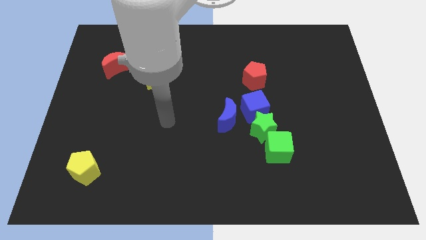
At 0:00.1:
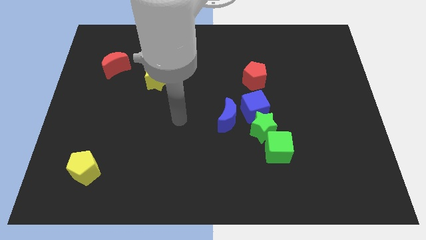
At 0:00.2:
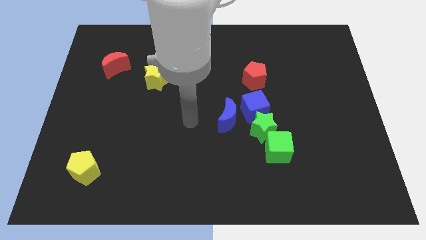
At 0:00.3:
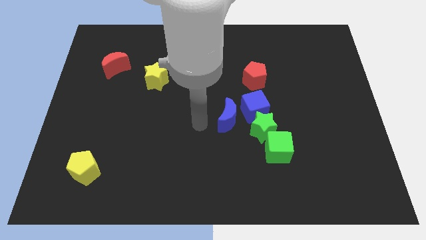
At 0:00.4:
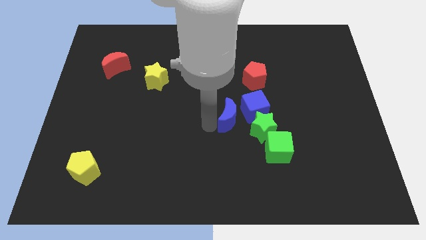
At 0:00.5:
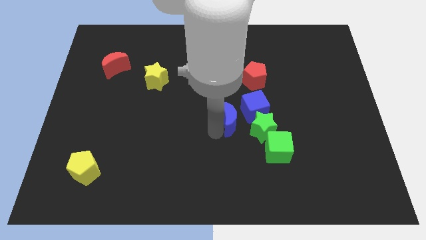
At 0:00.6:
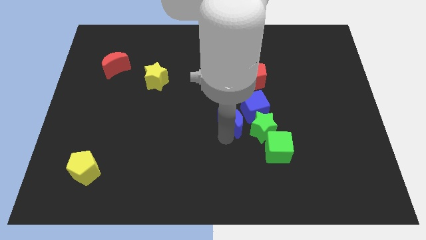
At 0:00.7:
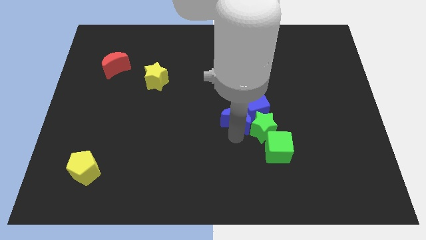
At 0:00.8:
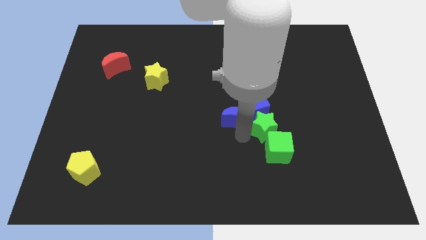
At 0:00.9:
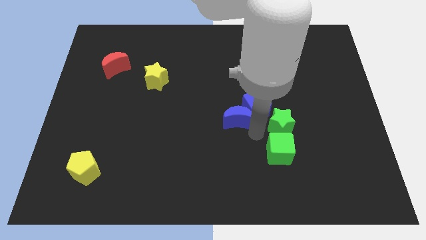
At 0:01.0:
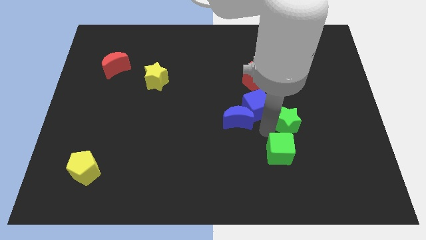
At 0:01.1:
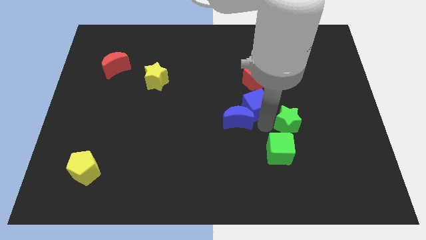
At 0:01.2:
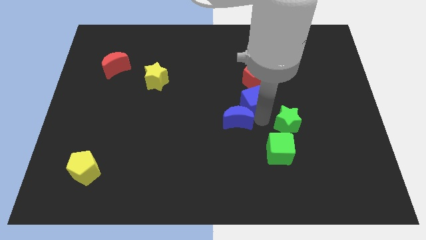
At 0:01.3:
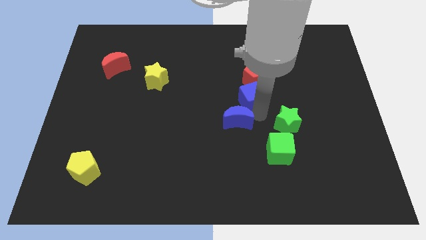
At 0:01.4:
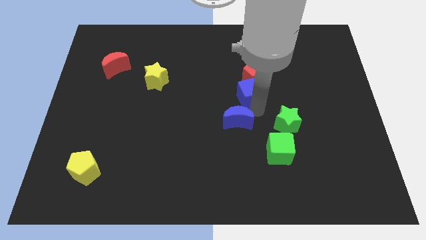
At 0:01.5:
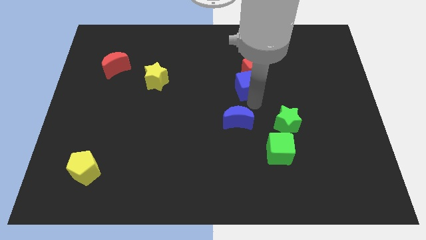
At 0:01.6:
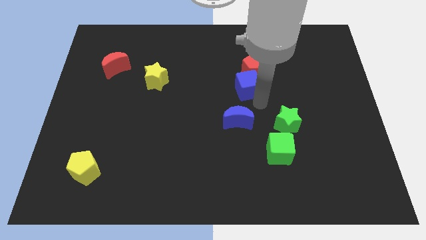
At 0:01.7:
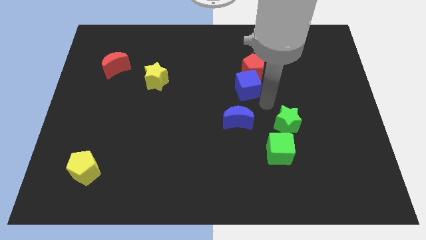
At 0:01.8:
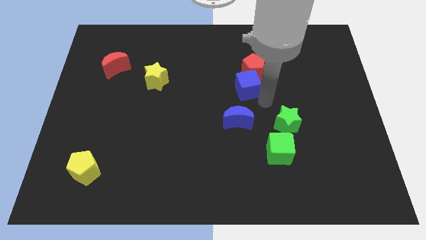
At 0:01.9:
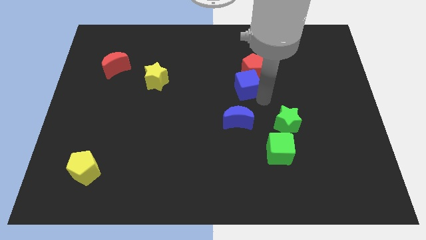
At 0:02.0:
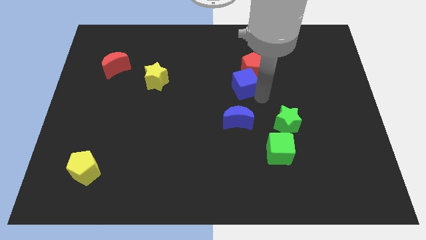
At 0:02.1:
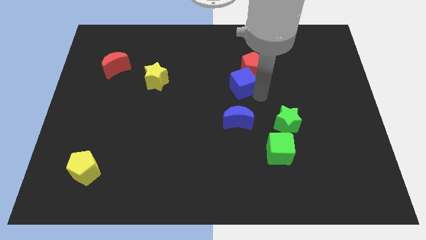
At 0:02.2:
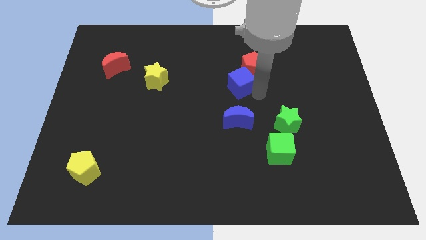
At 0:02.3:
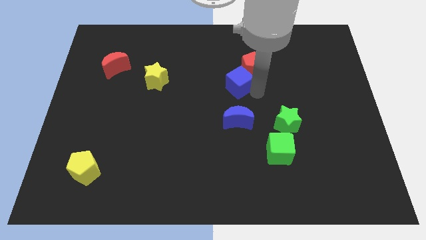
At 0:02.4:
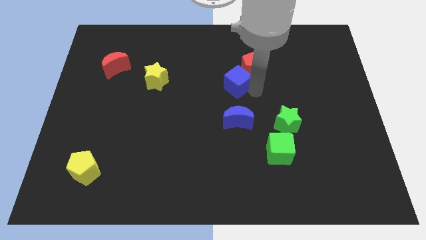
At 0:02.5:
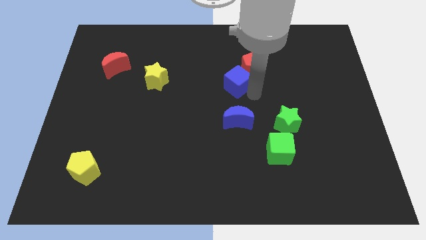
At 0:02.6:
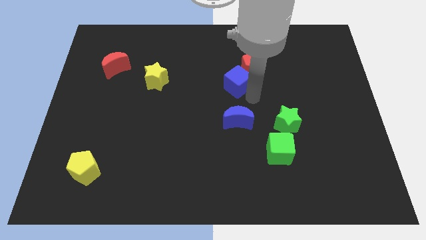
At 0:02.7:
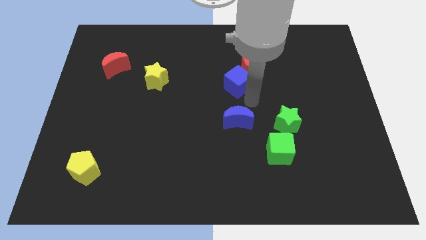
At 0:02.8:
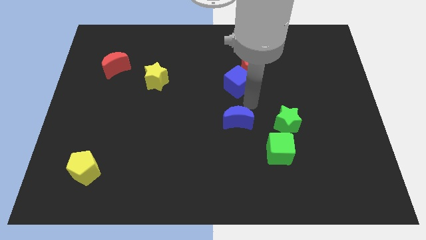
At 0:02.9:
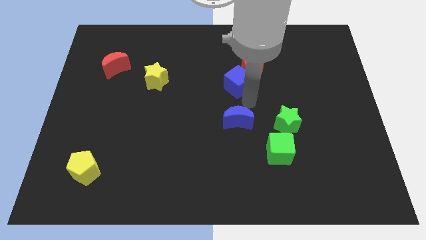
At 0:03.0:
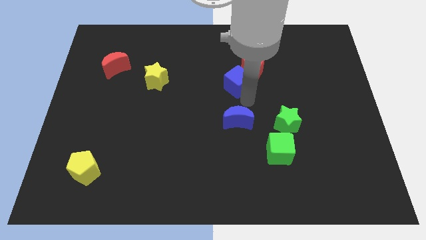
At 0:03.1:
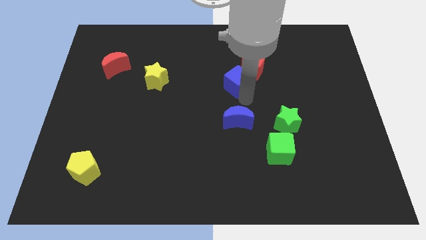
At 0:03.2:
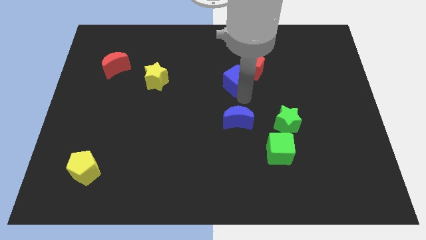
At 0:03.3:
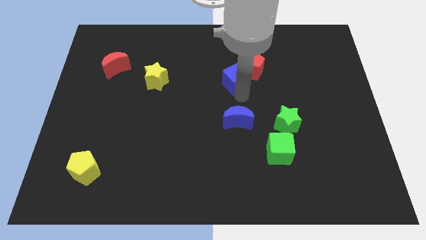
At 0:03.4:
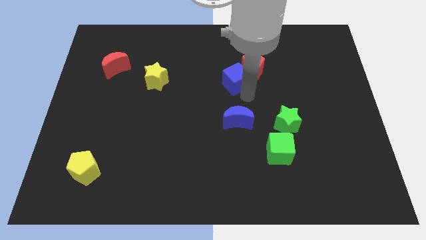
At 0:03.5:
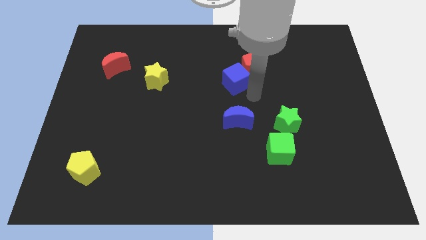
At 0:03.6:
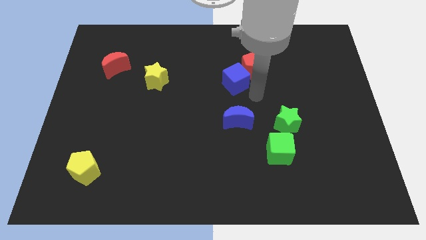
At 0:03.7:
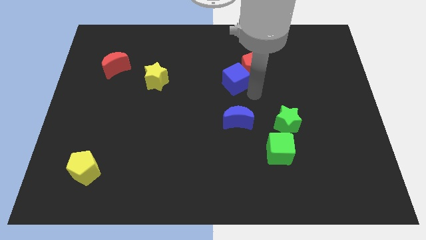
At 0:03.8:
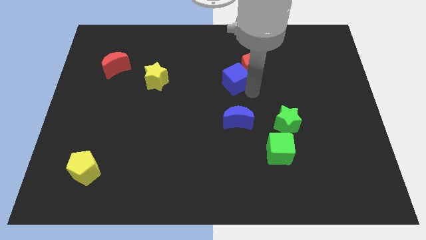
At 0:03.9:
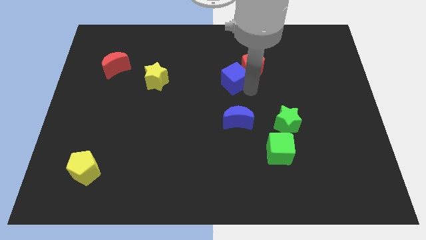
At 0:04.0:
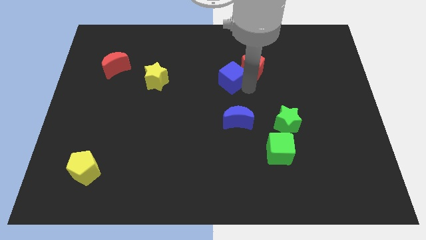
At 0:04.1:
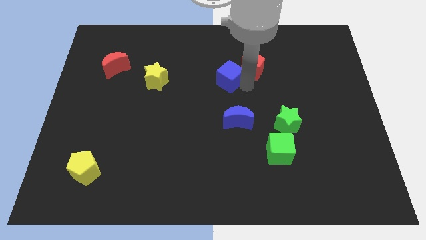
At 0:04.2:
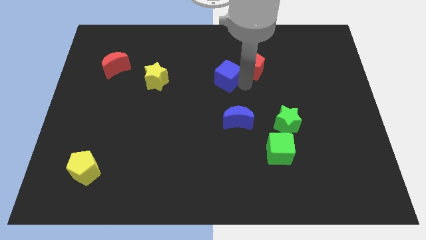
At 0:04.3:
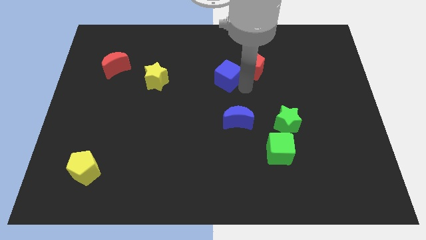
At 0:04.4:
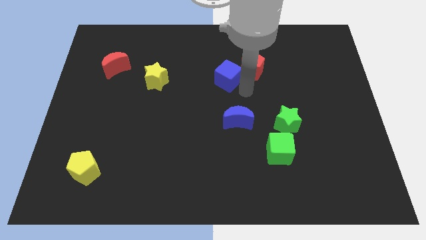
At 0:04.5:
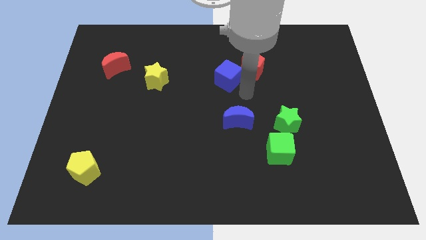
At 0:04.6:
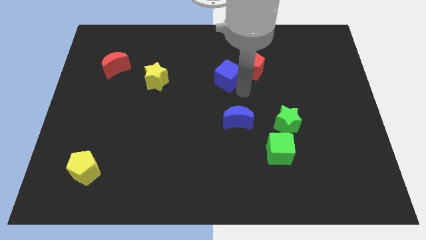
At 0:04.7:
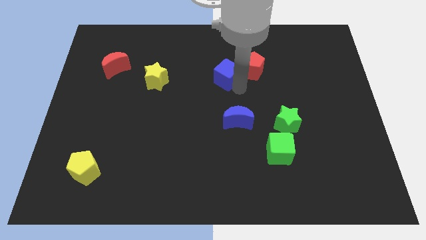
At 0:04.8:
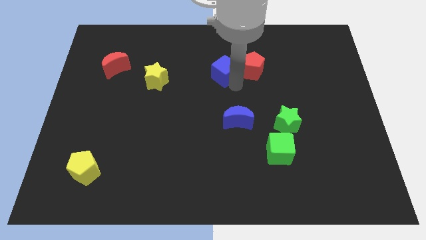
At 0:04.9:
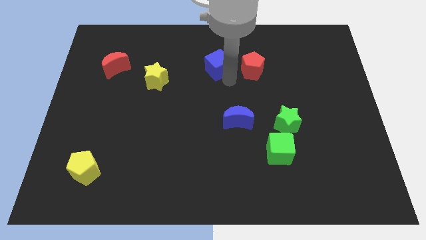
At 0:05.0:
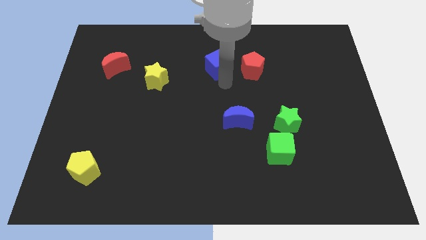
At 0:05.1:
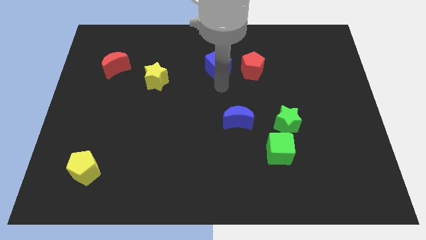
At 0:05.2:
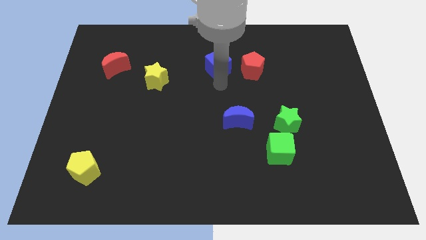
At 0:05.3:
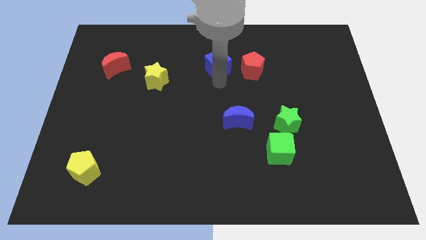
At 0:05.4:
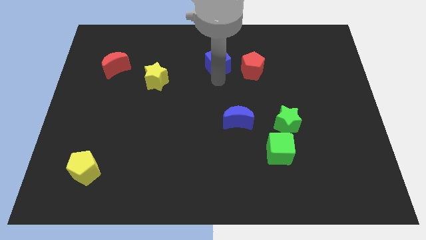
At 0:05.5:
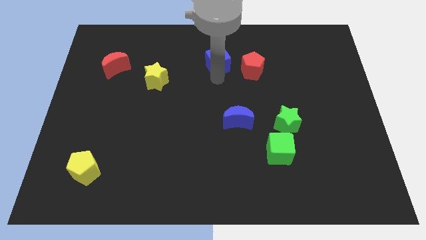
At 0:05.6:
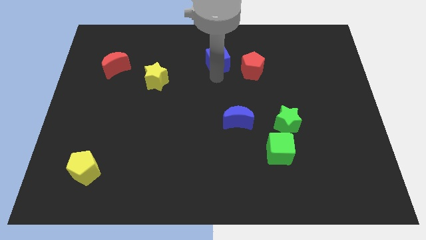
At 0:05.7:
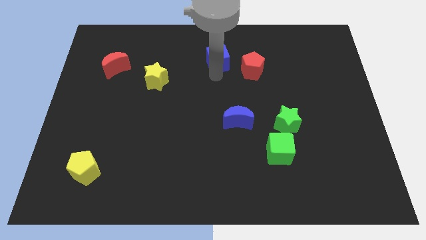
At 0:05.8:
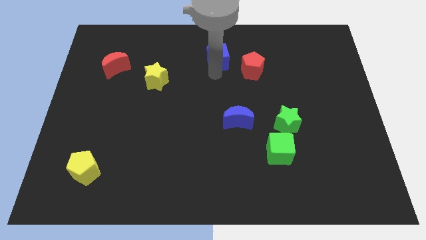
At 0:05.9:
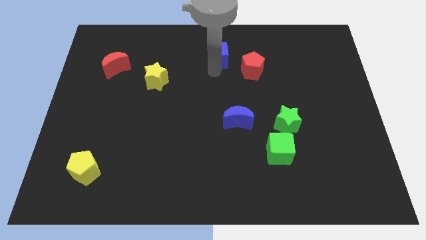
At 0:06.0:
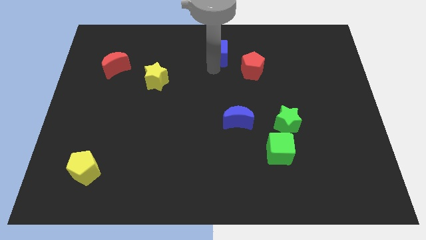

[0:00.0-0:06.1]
put the blue cube to the top side

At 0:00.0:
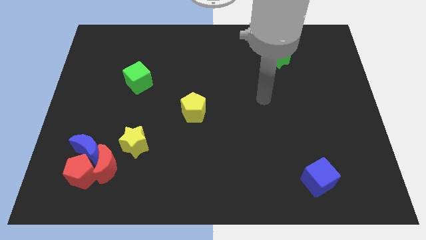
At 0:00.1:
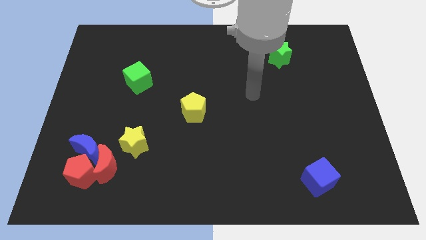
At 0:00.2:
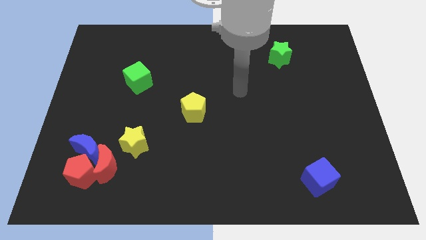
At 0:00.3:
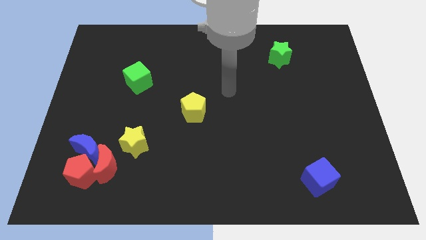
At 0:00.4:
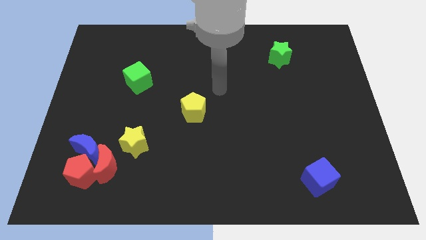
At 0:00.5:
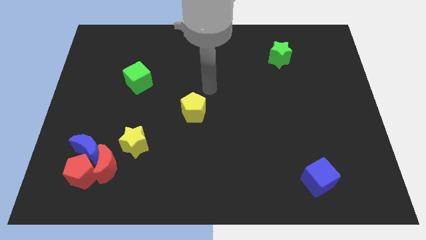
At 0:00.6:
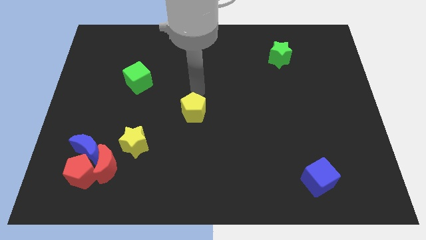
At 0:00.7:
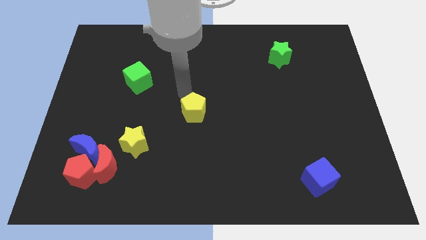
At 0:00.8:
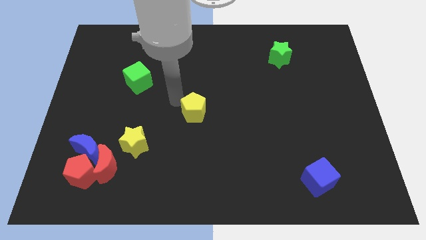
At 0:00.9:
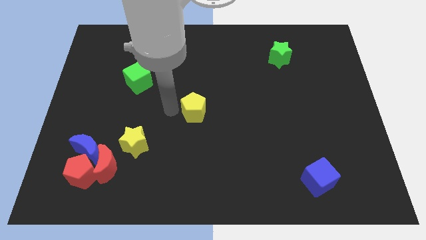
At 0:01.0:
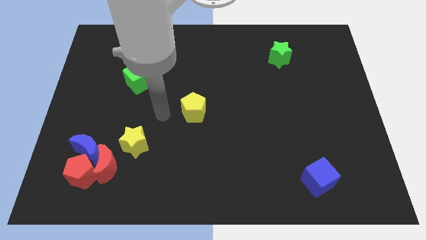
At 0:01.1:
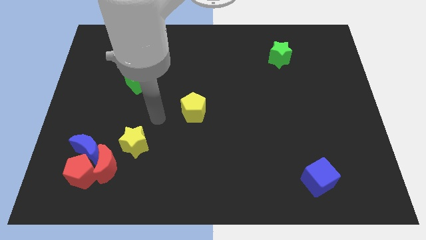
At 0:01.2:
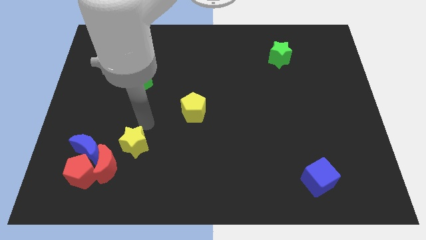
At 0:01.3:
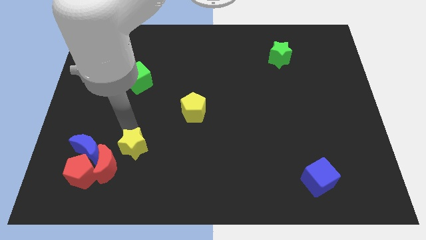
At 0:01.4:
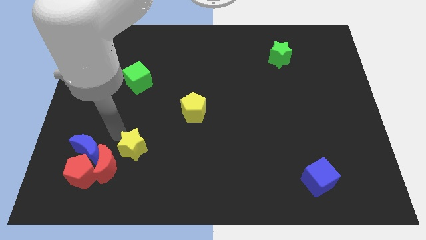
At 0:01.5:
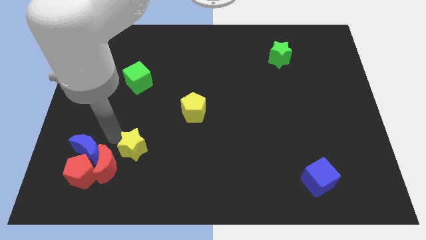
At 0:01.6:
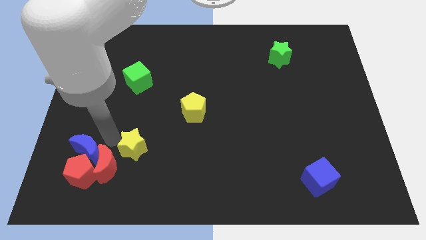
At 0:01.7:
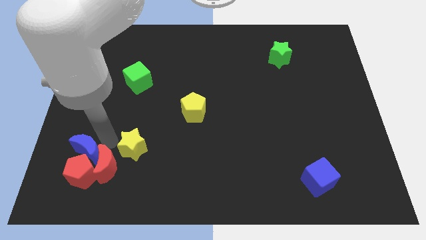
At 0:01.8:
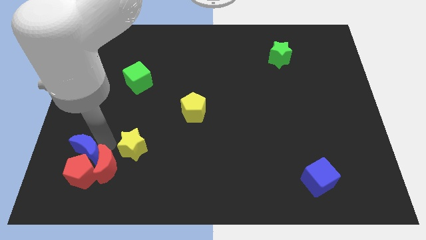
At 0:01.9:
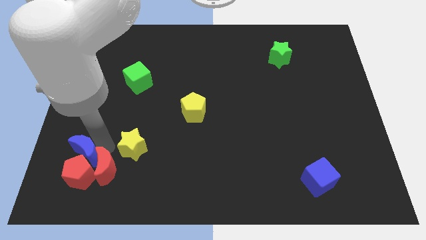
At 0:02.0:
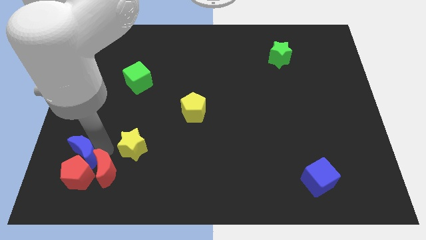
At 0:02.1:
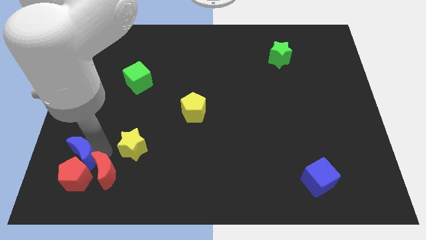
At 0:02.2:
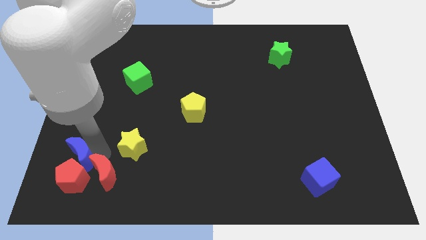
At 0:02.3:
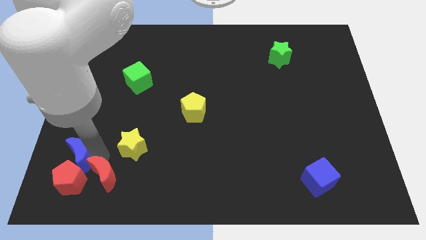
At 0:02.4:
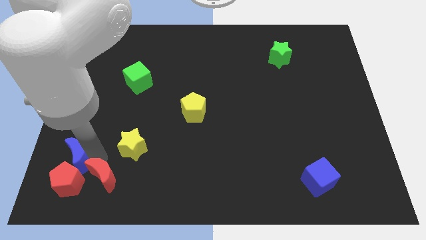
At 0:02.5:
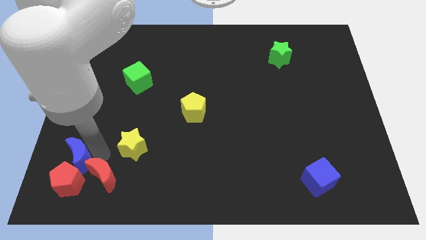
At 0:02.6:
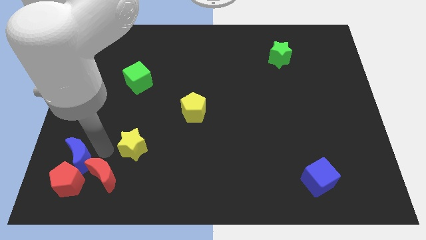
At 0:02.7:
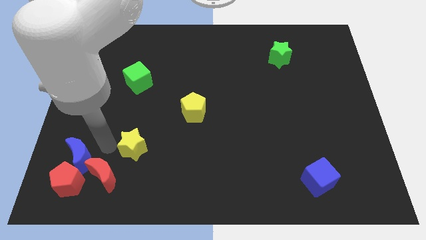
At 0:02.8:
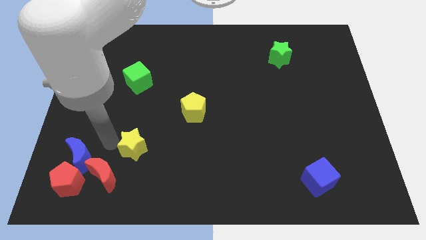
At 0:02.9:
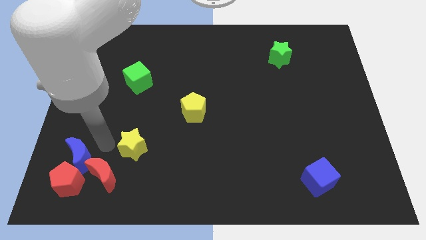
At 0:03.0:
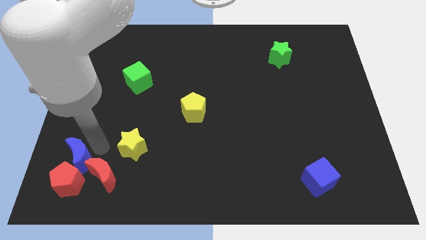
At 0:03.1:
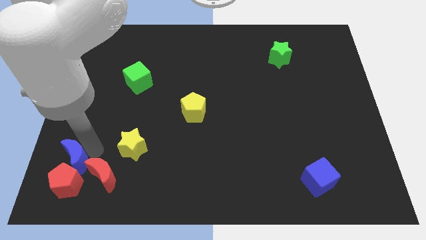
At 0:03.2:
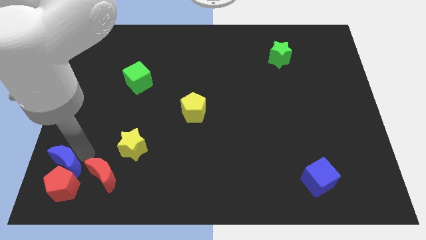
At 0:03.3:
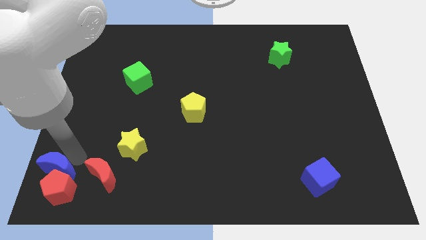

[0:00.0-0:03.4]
move the blue moon to the bottom left
